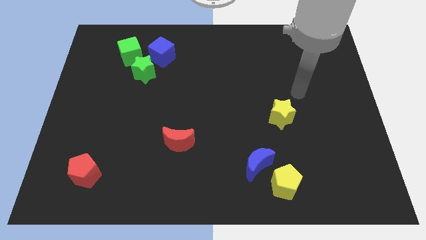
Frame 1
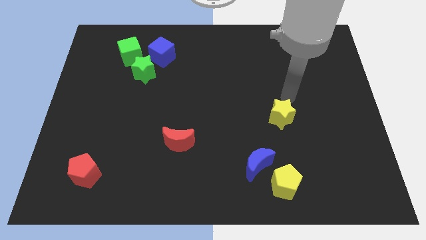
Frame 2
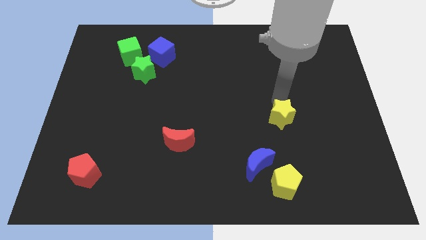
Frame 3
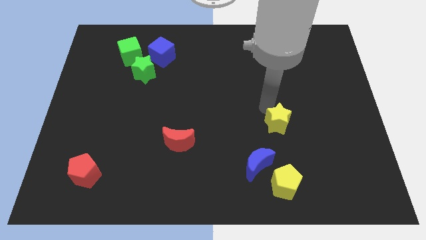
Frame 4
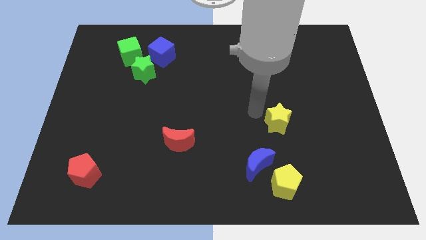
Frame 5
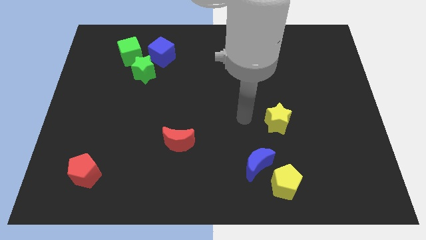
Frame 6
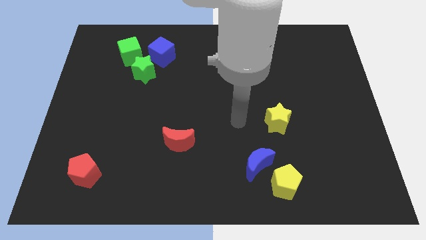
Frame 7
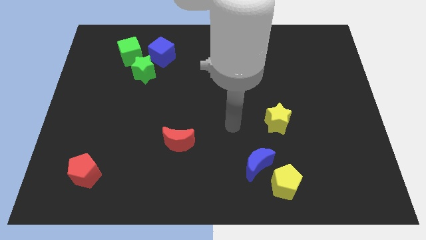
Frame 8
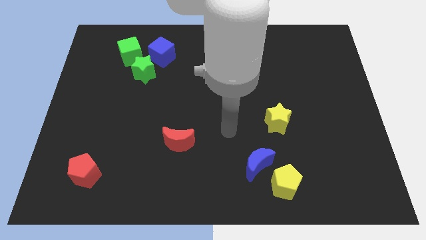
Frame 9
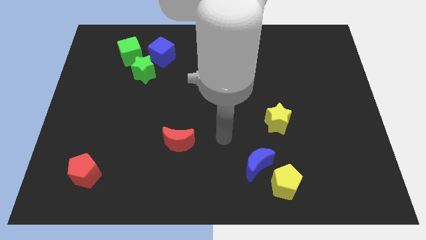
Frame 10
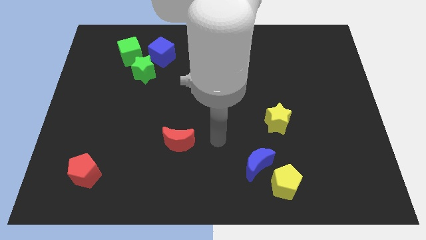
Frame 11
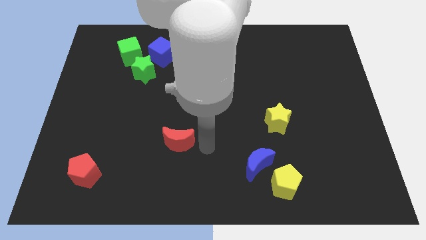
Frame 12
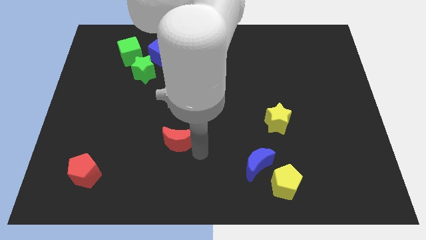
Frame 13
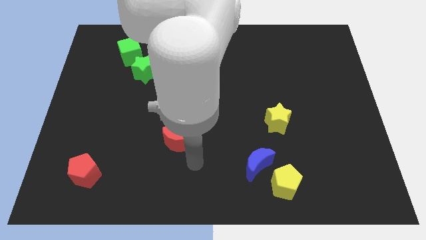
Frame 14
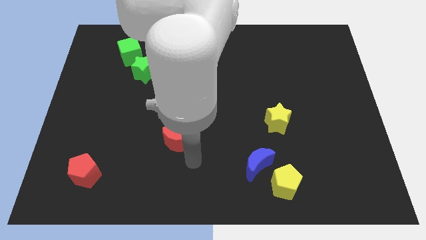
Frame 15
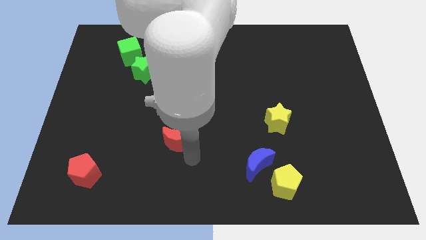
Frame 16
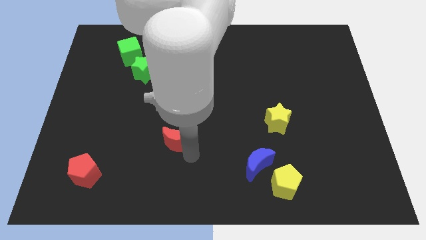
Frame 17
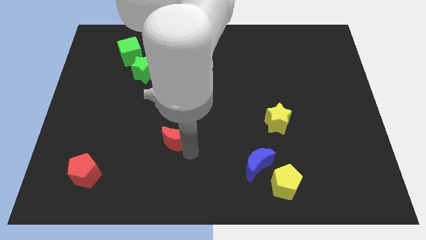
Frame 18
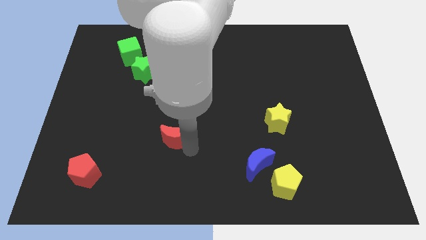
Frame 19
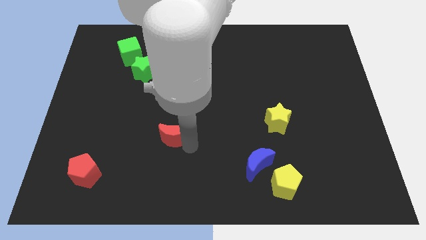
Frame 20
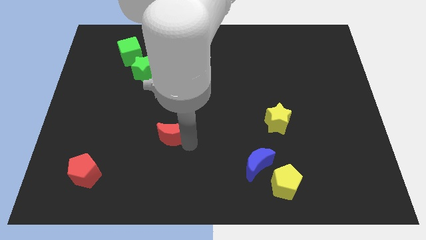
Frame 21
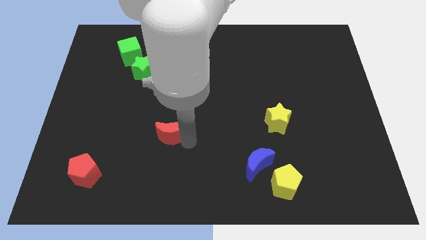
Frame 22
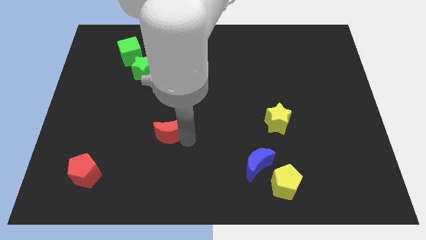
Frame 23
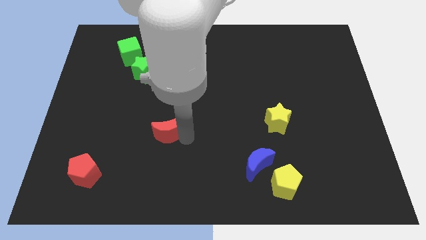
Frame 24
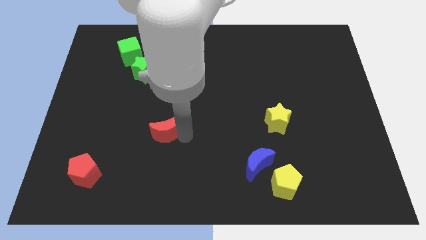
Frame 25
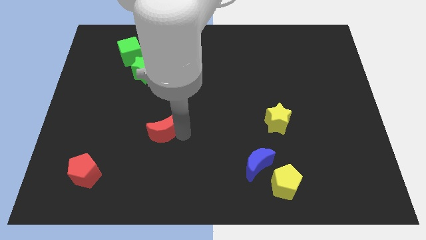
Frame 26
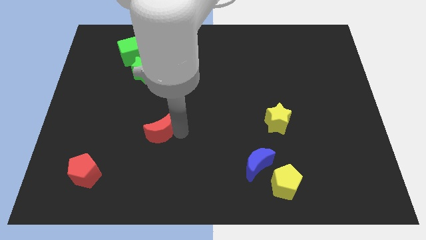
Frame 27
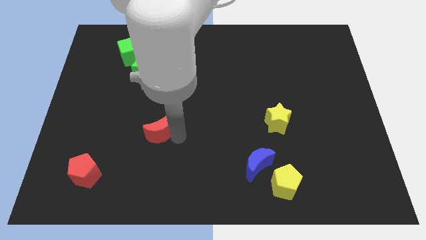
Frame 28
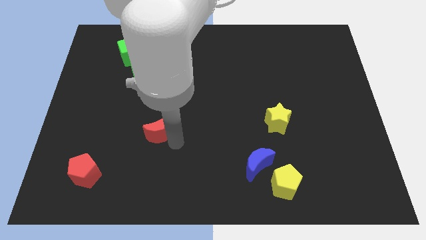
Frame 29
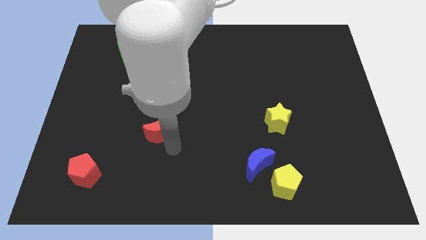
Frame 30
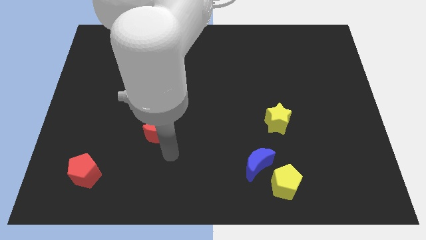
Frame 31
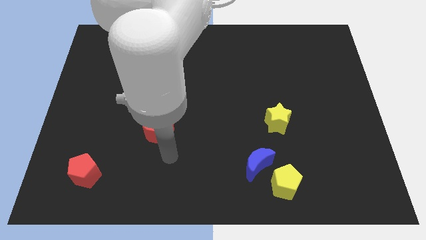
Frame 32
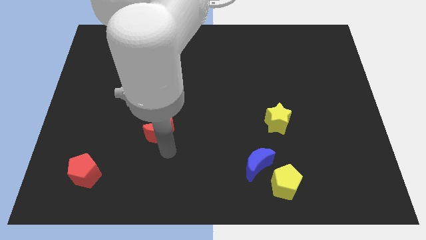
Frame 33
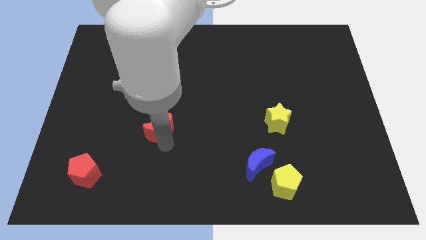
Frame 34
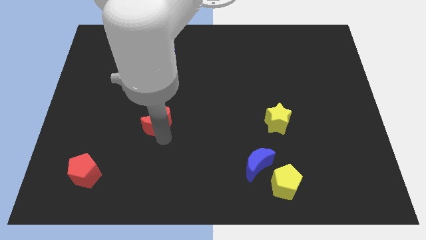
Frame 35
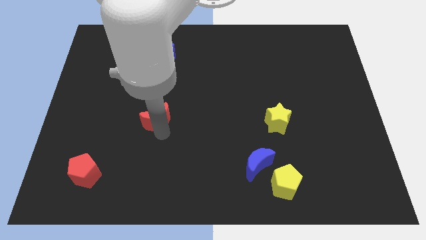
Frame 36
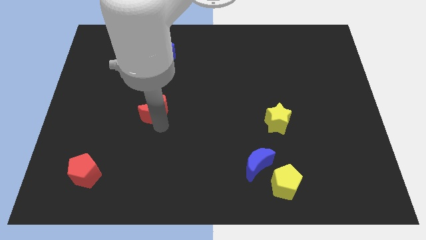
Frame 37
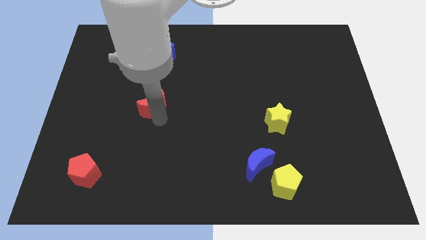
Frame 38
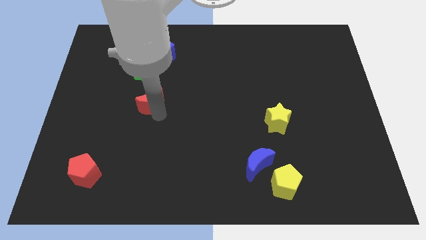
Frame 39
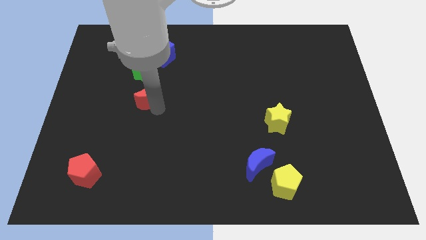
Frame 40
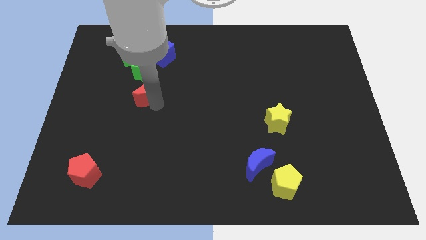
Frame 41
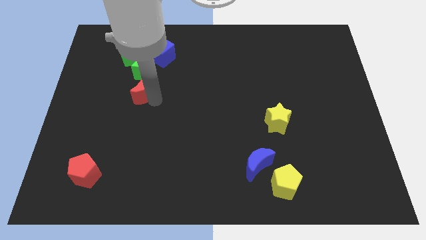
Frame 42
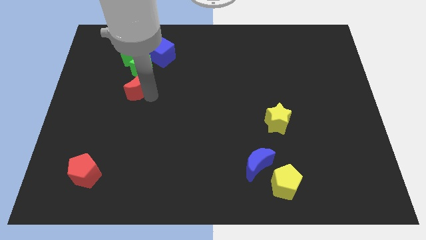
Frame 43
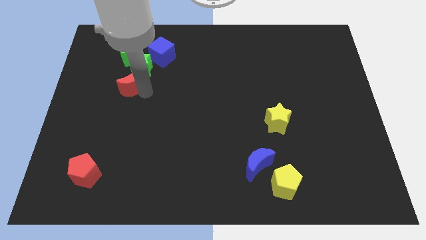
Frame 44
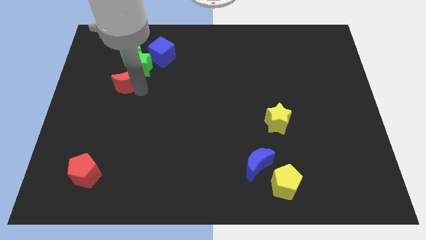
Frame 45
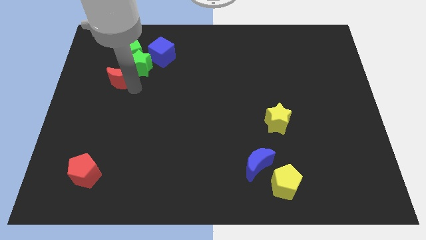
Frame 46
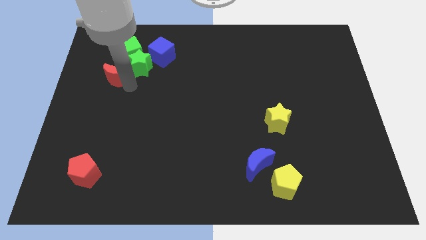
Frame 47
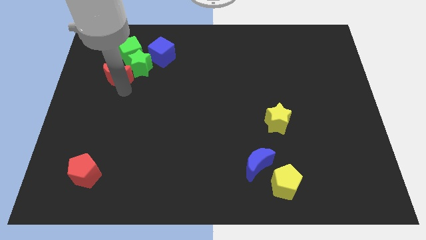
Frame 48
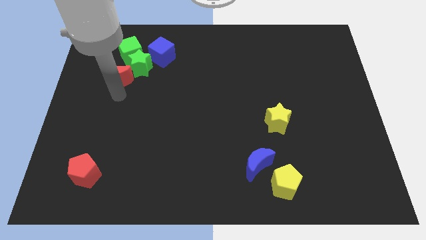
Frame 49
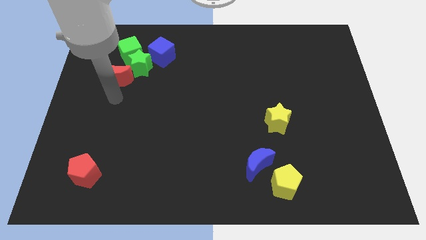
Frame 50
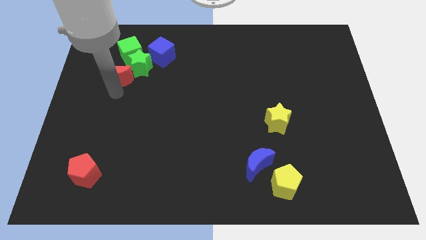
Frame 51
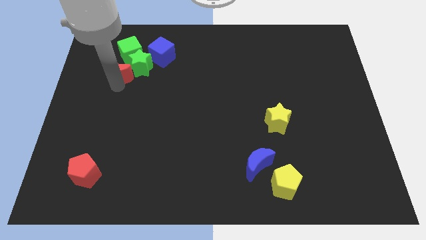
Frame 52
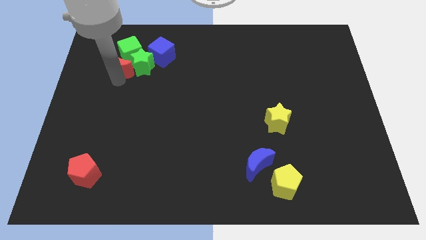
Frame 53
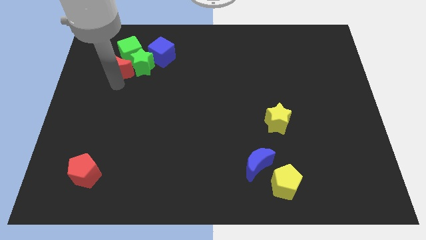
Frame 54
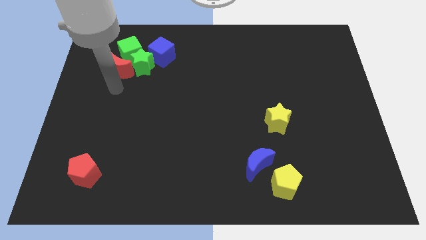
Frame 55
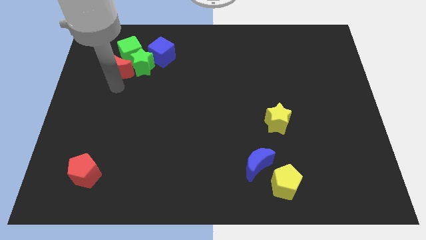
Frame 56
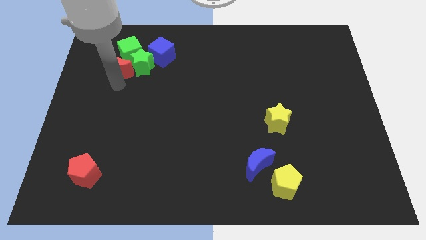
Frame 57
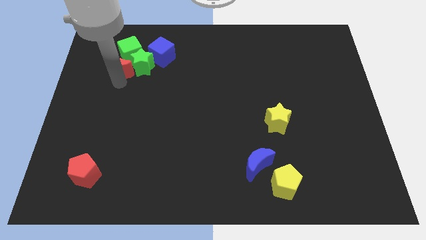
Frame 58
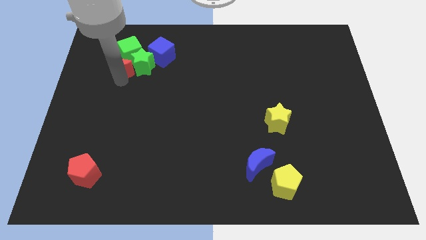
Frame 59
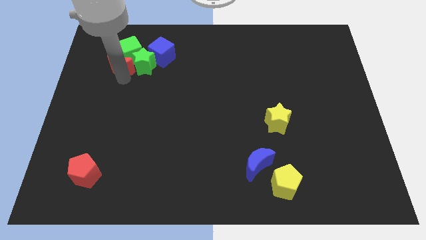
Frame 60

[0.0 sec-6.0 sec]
move the red moon just left of the blue cube

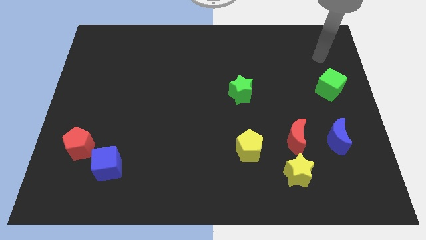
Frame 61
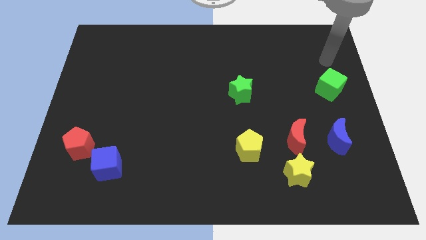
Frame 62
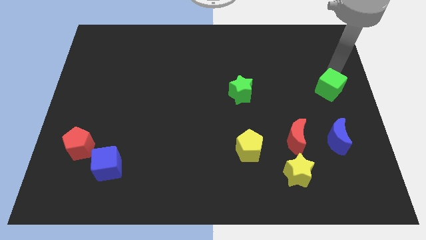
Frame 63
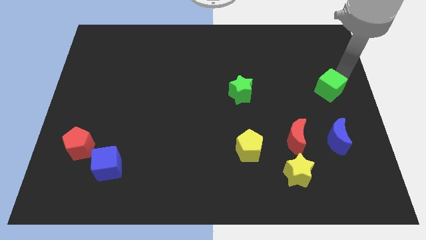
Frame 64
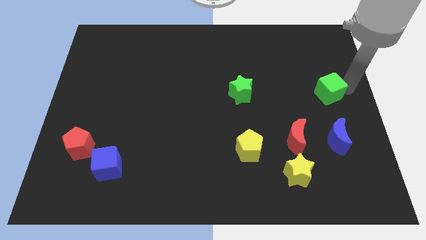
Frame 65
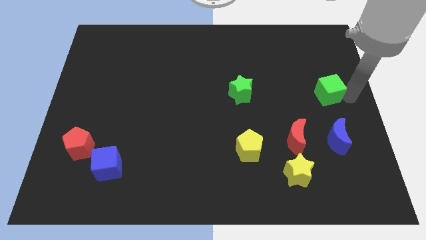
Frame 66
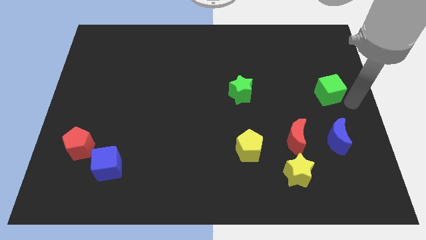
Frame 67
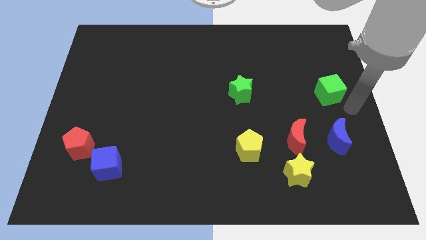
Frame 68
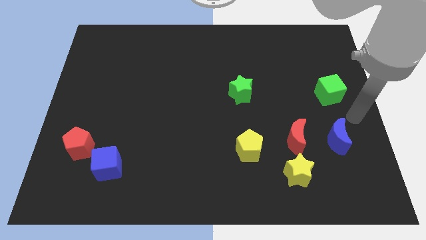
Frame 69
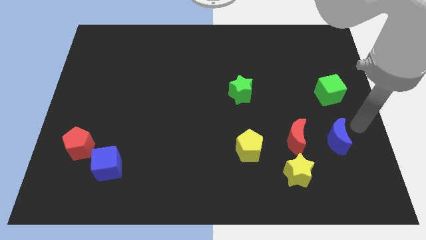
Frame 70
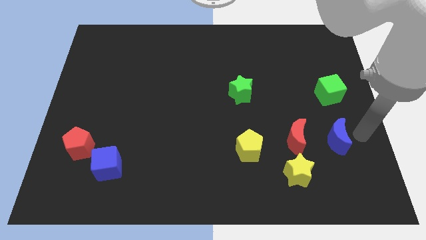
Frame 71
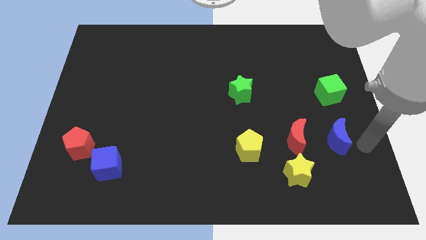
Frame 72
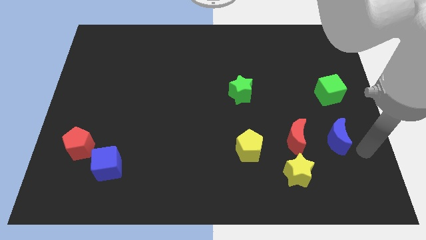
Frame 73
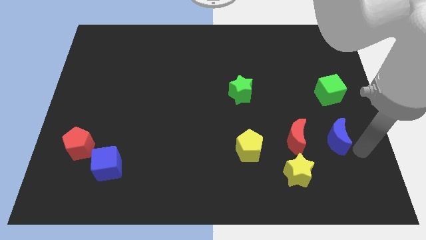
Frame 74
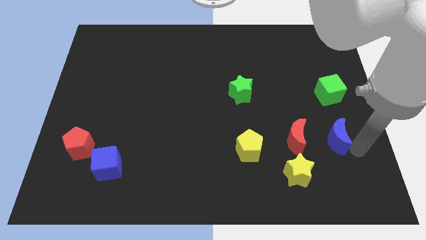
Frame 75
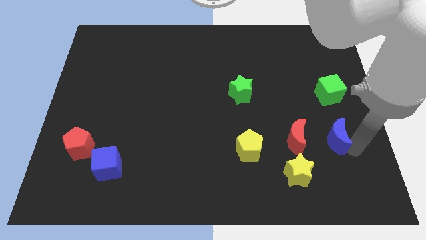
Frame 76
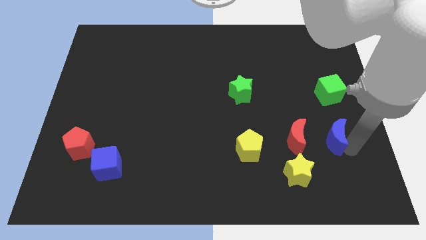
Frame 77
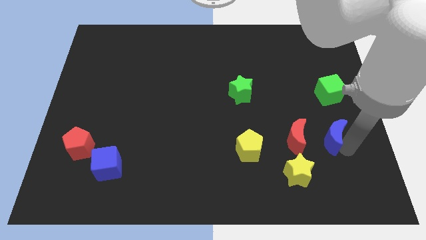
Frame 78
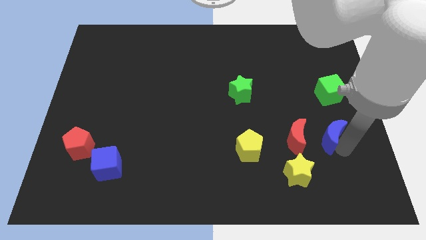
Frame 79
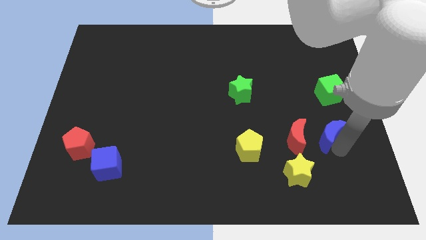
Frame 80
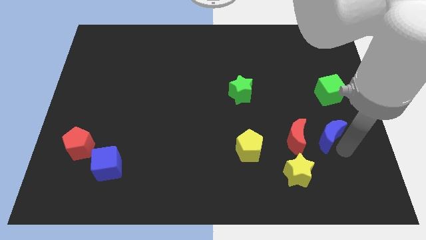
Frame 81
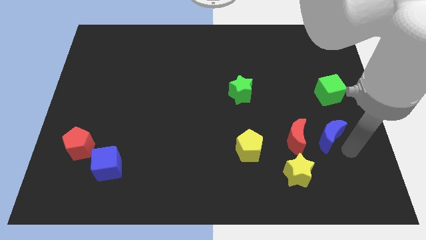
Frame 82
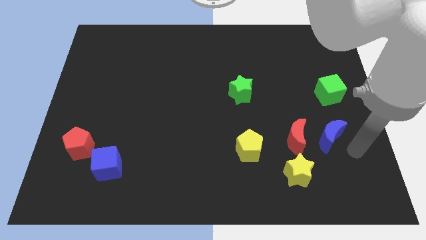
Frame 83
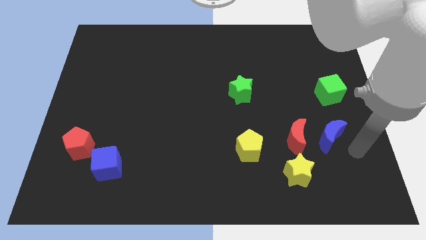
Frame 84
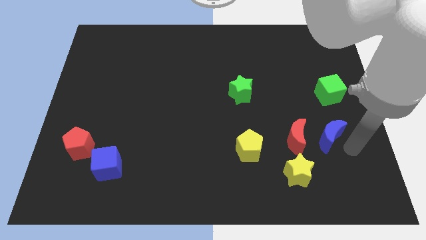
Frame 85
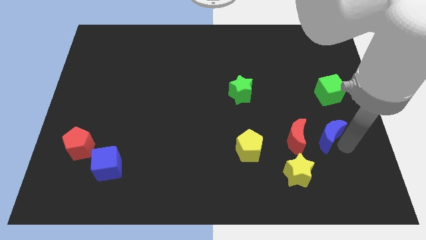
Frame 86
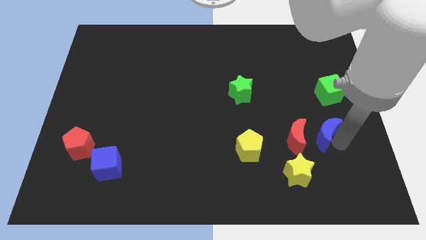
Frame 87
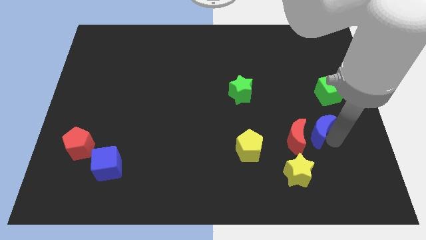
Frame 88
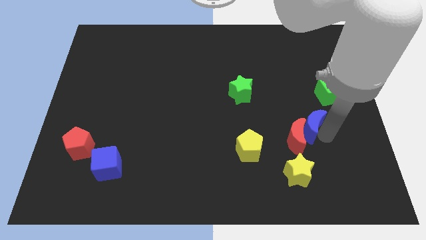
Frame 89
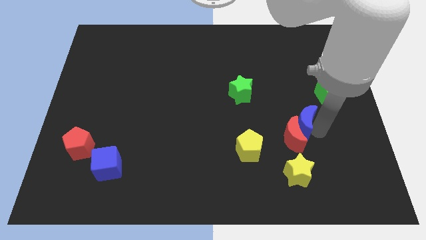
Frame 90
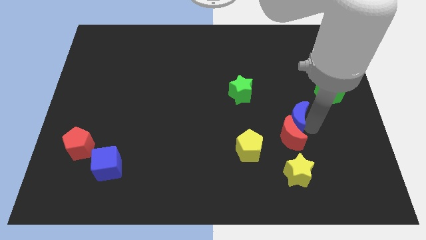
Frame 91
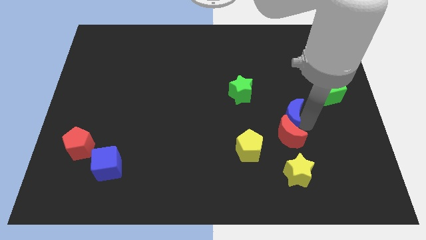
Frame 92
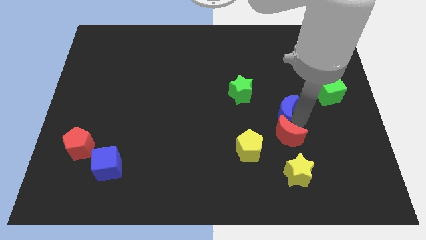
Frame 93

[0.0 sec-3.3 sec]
slide the blue moon to the bottom right side of the green star
